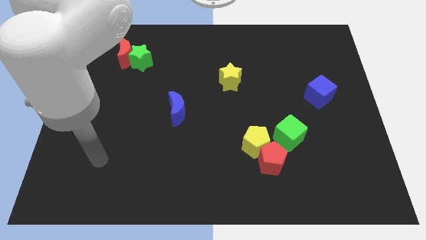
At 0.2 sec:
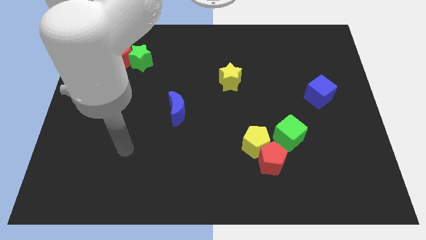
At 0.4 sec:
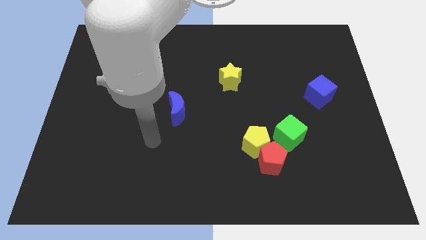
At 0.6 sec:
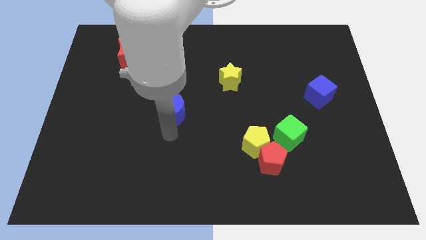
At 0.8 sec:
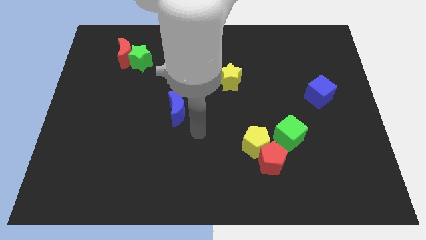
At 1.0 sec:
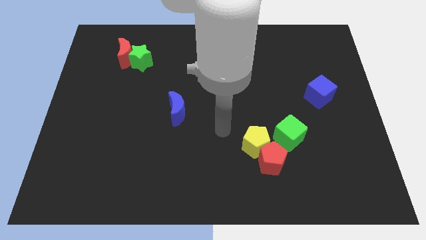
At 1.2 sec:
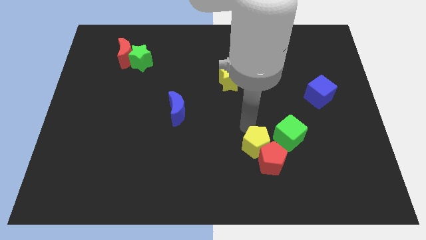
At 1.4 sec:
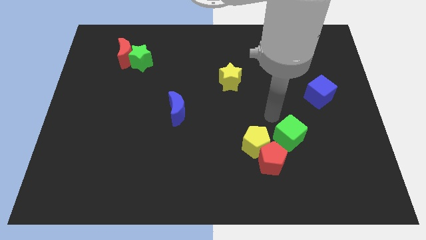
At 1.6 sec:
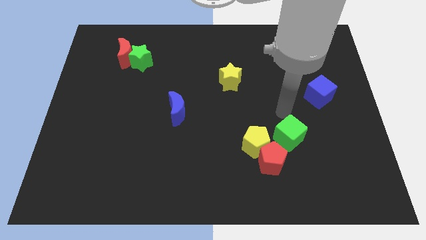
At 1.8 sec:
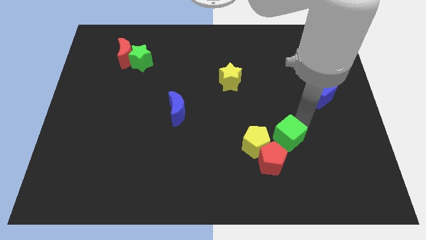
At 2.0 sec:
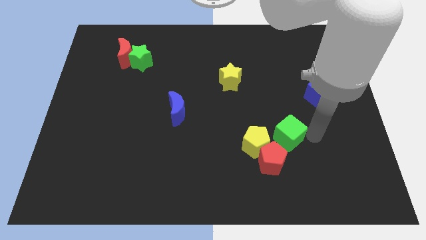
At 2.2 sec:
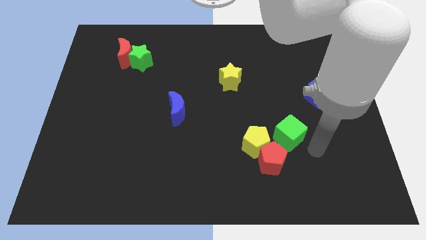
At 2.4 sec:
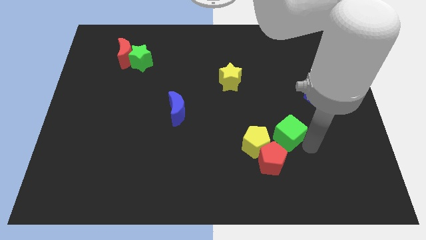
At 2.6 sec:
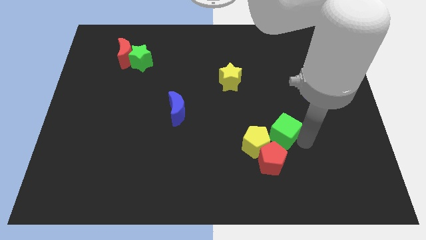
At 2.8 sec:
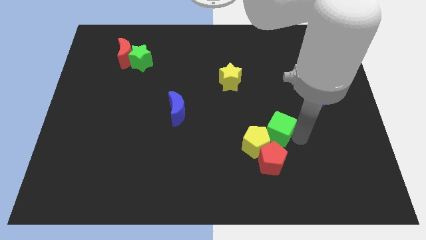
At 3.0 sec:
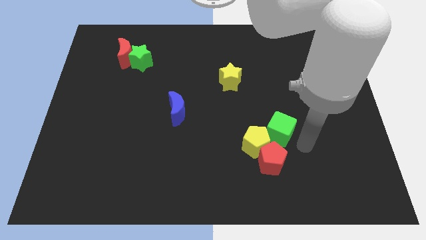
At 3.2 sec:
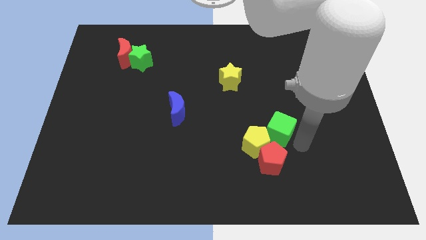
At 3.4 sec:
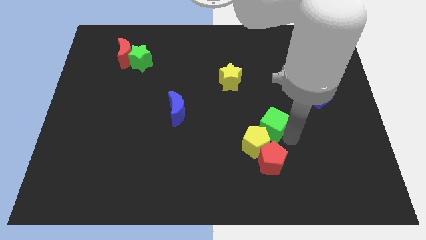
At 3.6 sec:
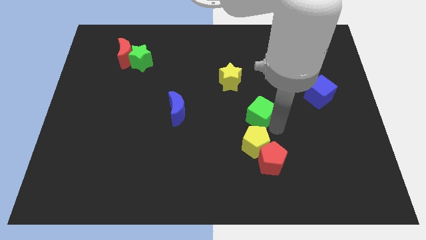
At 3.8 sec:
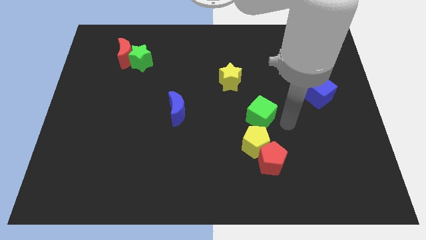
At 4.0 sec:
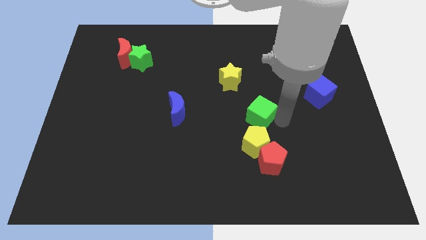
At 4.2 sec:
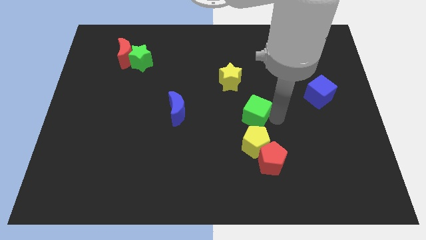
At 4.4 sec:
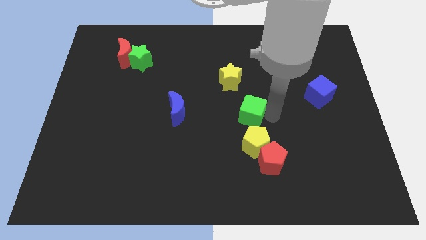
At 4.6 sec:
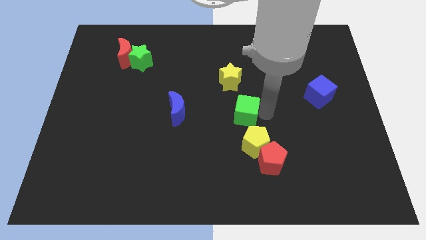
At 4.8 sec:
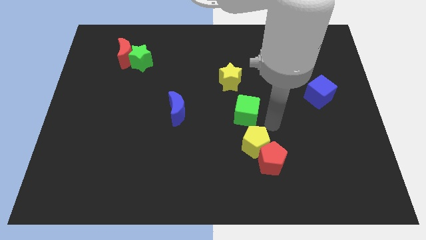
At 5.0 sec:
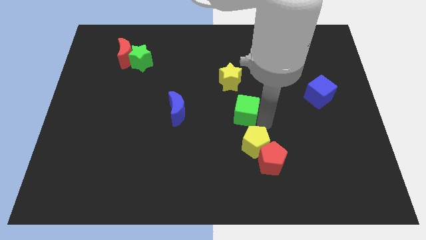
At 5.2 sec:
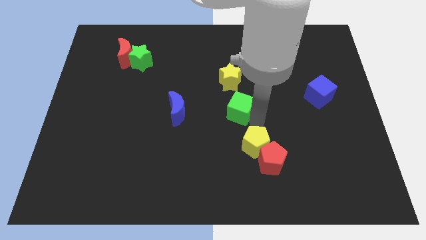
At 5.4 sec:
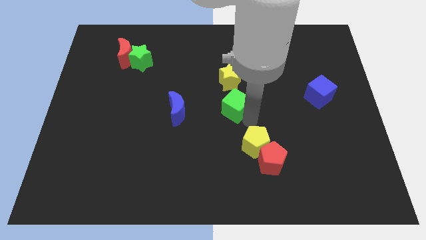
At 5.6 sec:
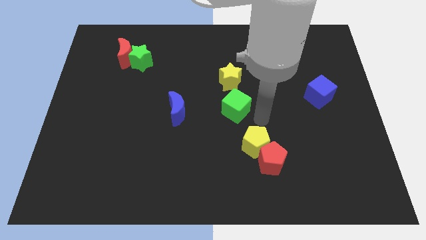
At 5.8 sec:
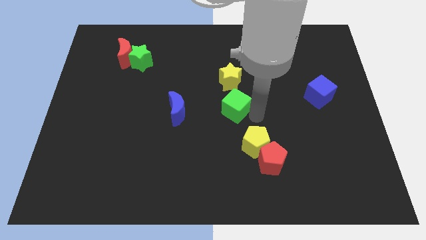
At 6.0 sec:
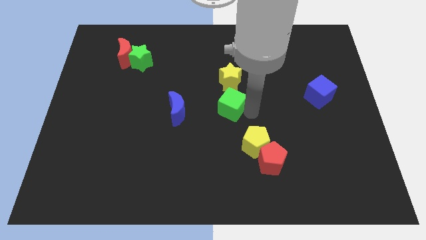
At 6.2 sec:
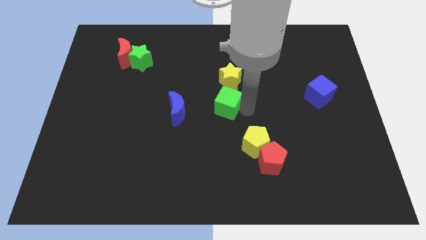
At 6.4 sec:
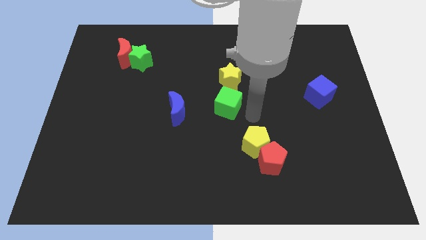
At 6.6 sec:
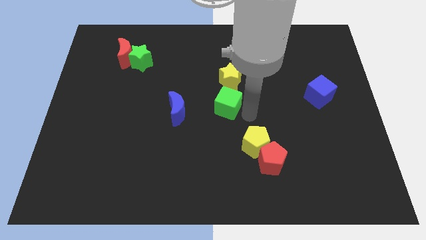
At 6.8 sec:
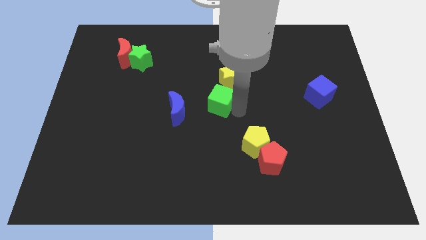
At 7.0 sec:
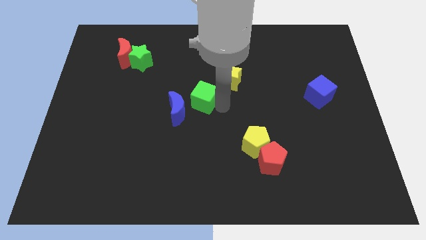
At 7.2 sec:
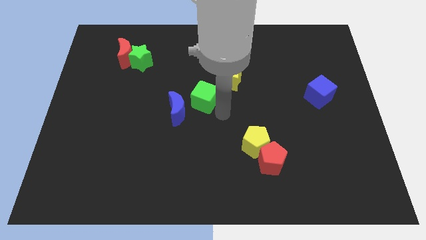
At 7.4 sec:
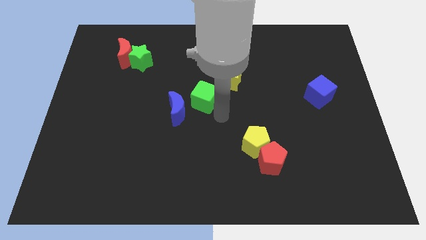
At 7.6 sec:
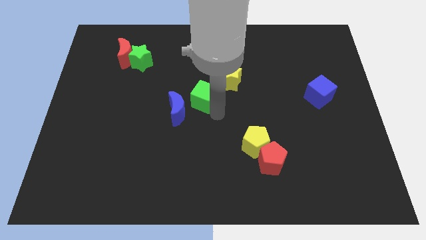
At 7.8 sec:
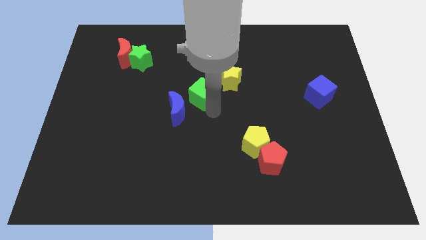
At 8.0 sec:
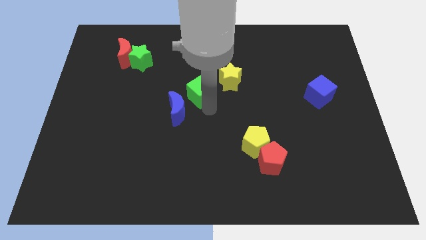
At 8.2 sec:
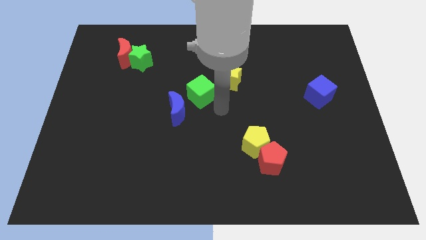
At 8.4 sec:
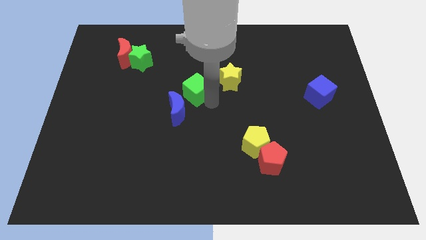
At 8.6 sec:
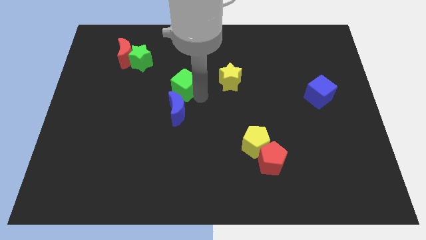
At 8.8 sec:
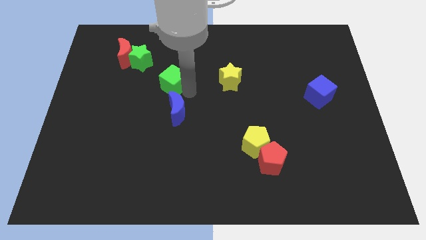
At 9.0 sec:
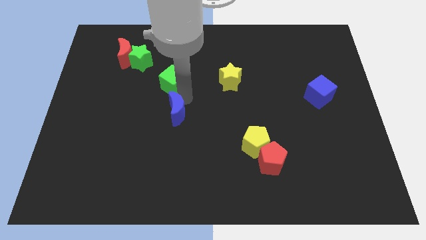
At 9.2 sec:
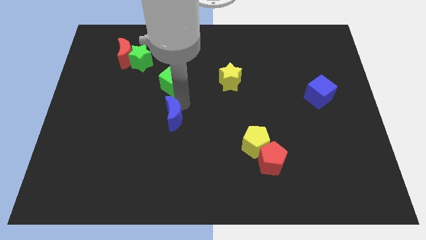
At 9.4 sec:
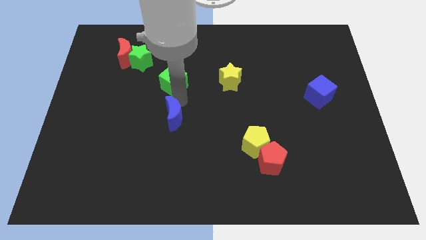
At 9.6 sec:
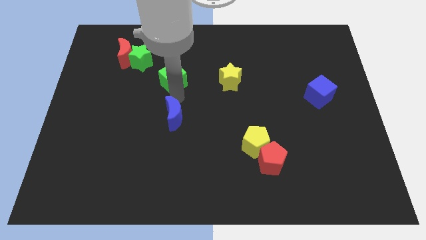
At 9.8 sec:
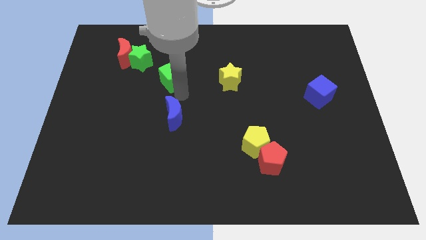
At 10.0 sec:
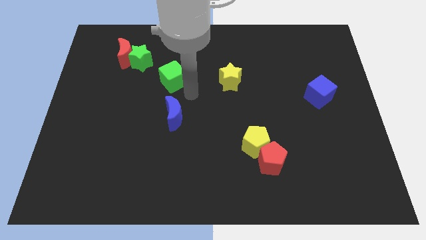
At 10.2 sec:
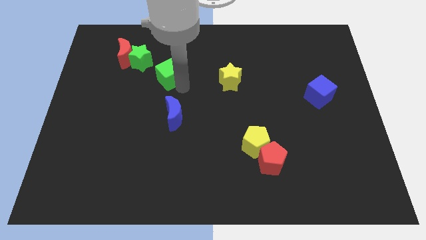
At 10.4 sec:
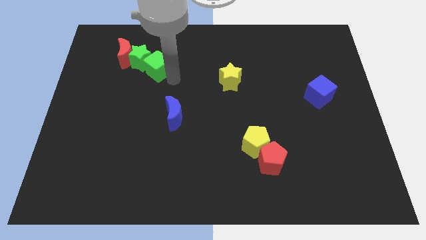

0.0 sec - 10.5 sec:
put the green cube towards the green star

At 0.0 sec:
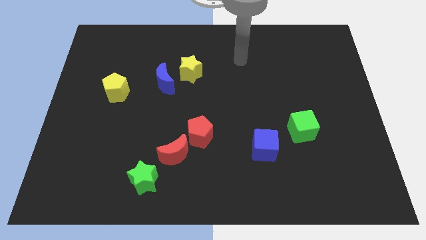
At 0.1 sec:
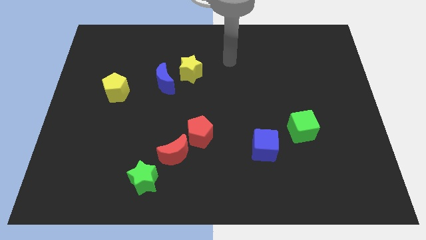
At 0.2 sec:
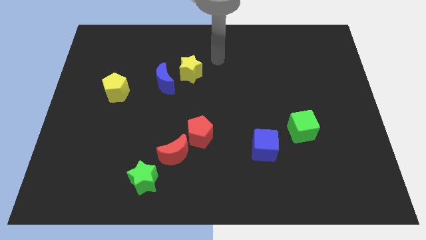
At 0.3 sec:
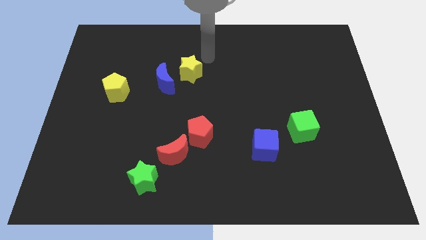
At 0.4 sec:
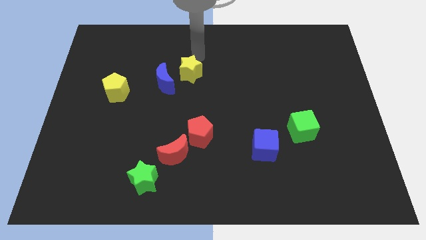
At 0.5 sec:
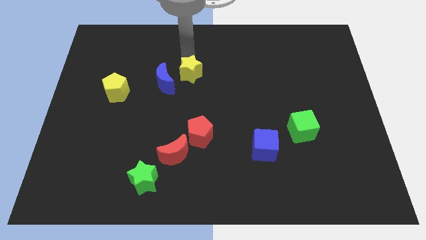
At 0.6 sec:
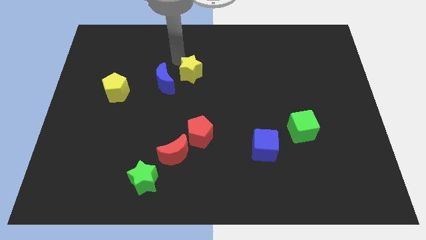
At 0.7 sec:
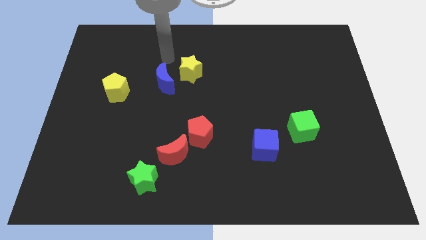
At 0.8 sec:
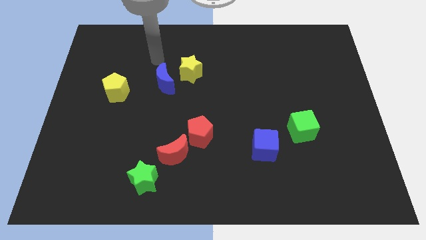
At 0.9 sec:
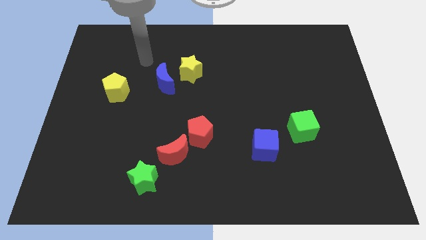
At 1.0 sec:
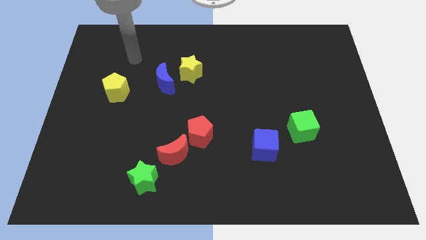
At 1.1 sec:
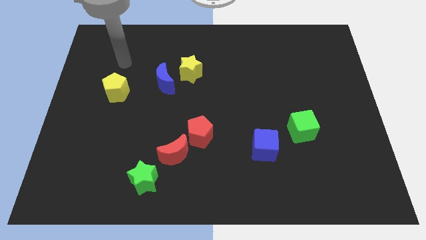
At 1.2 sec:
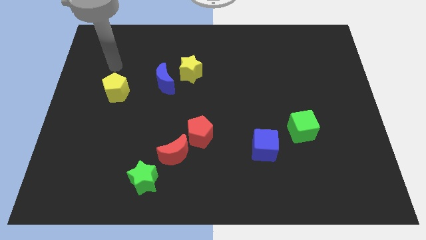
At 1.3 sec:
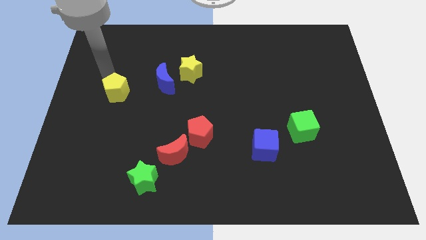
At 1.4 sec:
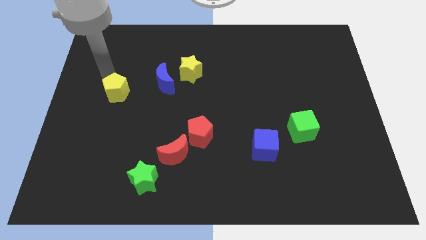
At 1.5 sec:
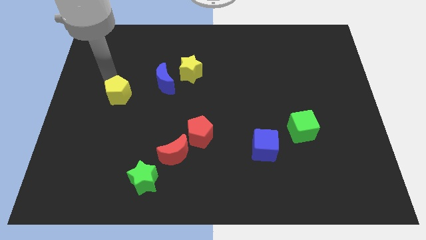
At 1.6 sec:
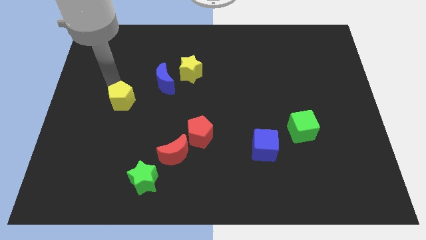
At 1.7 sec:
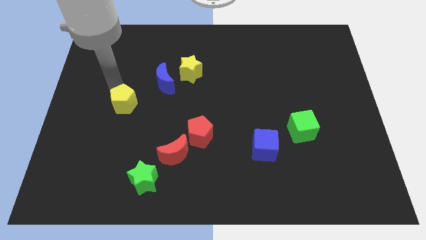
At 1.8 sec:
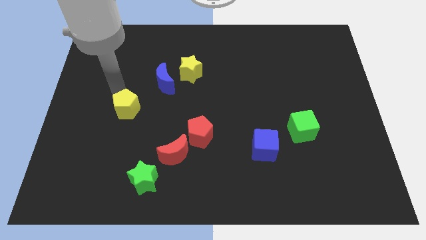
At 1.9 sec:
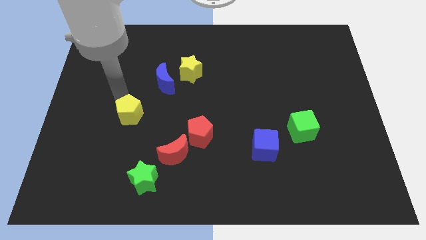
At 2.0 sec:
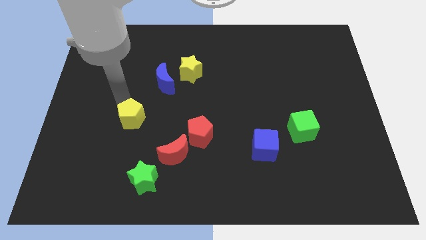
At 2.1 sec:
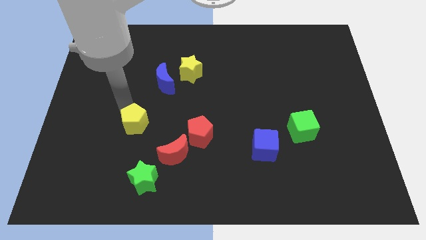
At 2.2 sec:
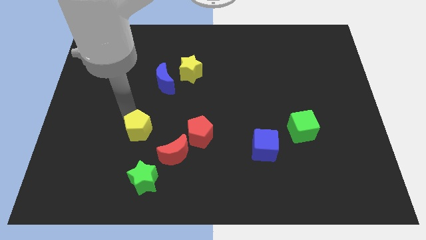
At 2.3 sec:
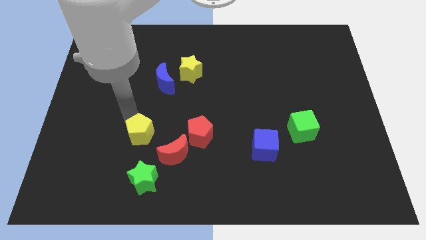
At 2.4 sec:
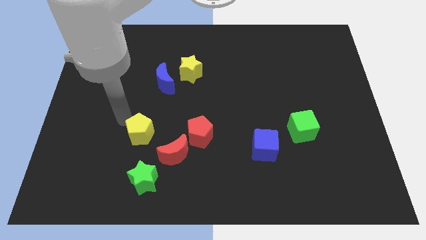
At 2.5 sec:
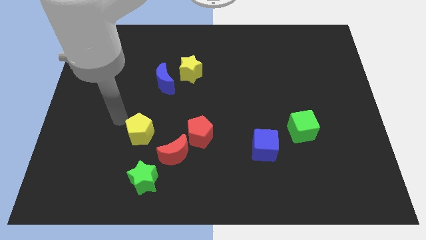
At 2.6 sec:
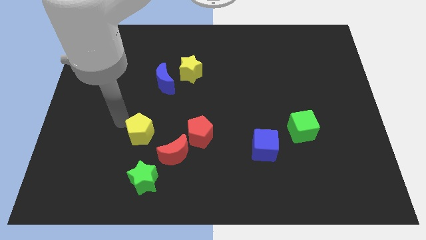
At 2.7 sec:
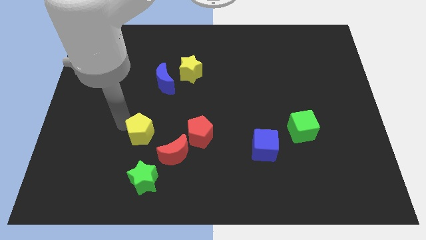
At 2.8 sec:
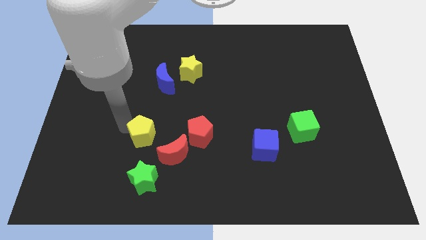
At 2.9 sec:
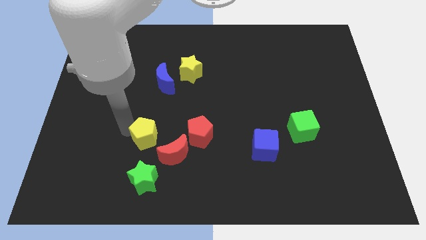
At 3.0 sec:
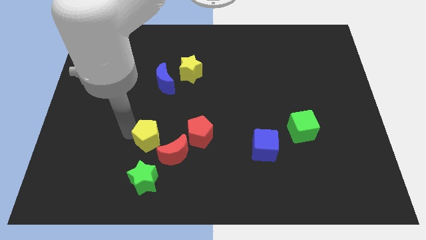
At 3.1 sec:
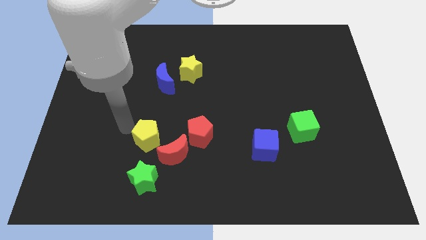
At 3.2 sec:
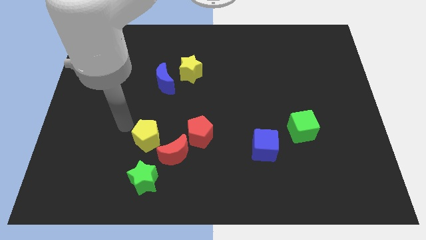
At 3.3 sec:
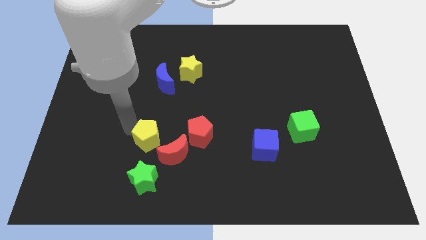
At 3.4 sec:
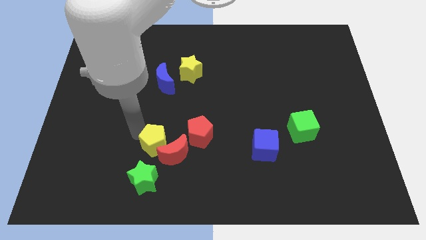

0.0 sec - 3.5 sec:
put the yellow pentagon close to the red moon
